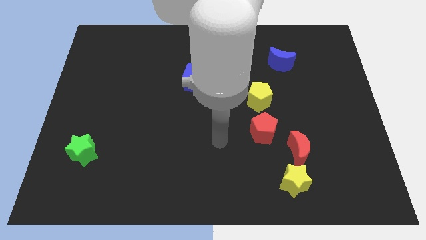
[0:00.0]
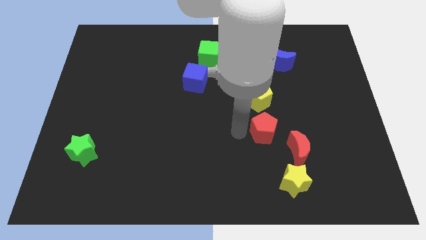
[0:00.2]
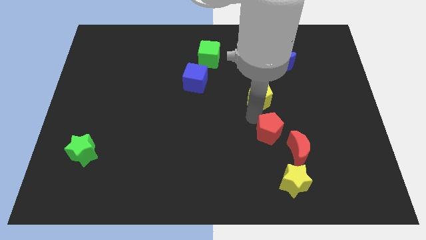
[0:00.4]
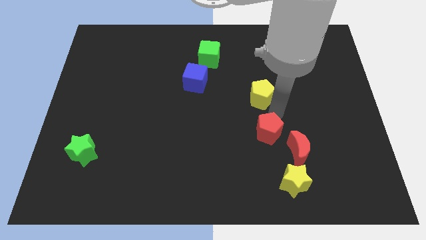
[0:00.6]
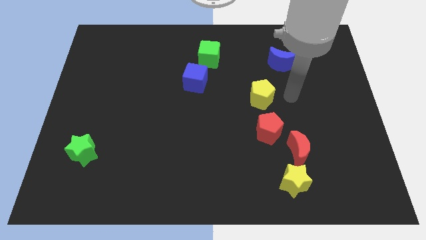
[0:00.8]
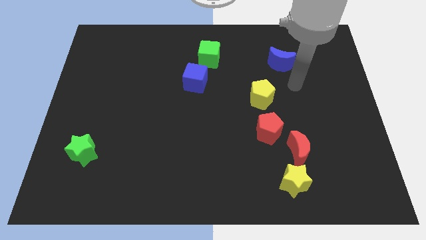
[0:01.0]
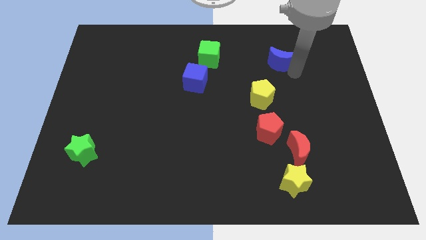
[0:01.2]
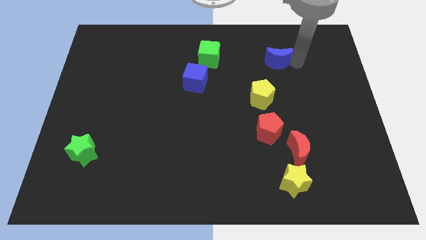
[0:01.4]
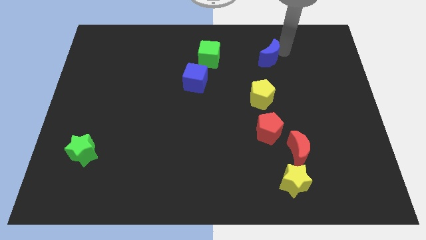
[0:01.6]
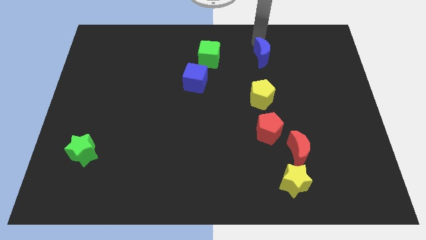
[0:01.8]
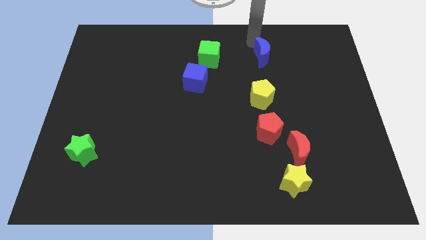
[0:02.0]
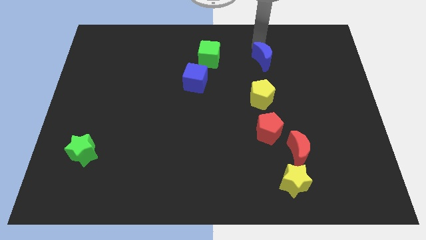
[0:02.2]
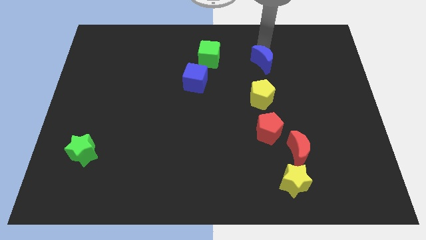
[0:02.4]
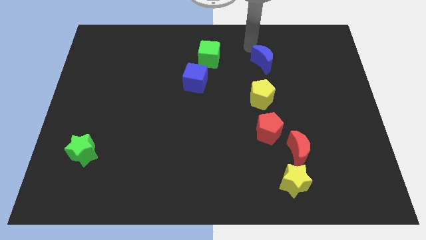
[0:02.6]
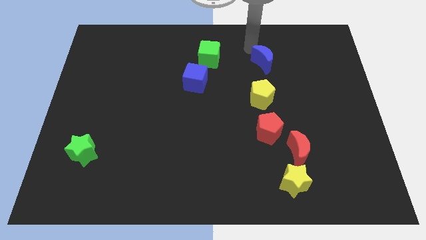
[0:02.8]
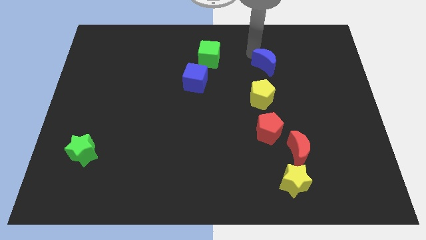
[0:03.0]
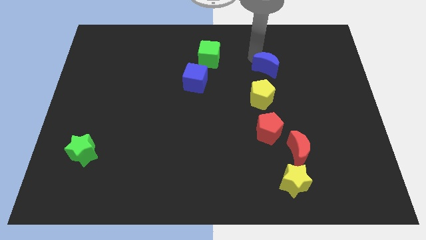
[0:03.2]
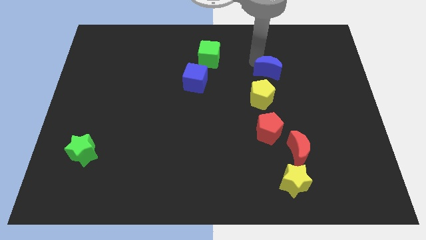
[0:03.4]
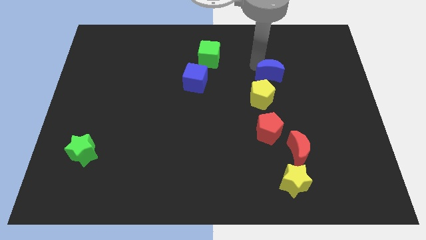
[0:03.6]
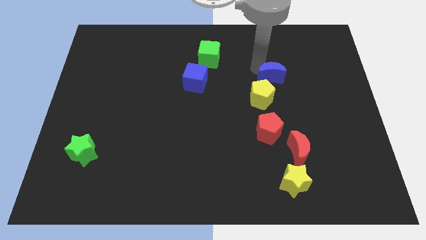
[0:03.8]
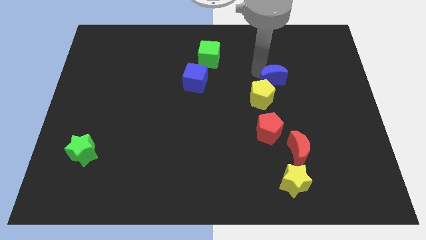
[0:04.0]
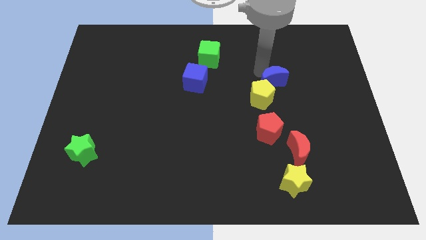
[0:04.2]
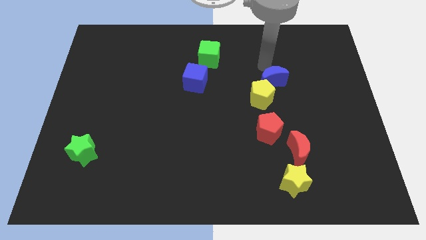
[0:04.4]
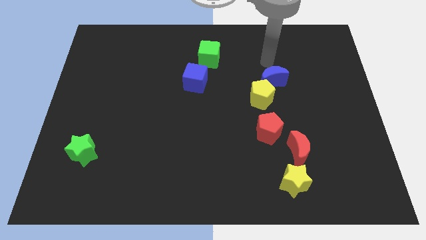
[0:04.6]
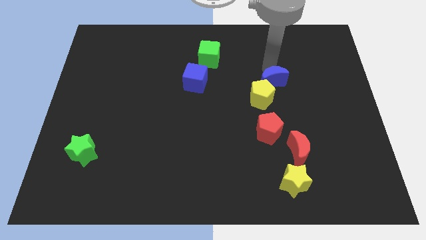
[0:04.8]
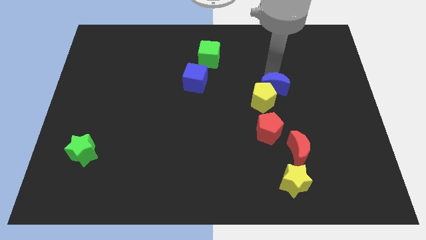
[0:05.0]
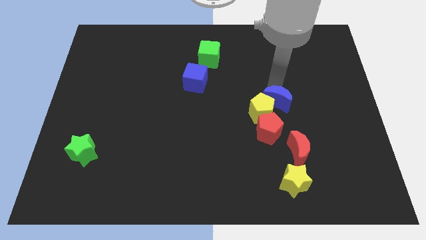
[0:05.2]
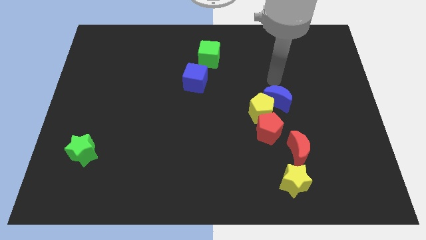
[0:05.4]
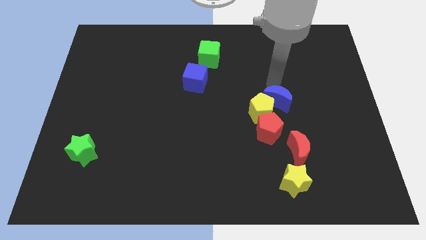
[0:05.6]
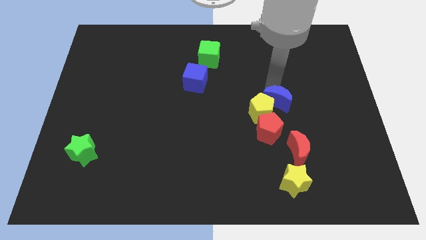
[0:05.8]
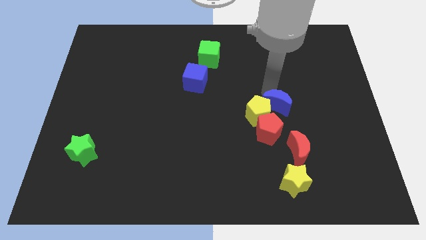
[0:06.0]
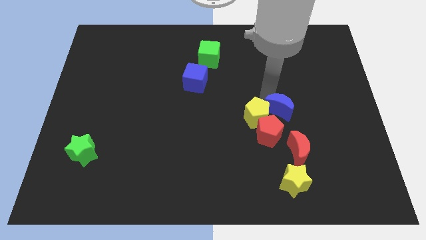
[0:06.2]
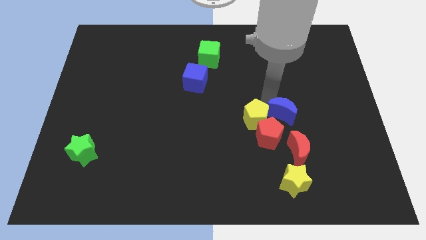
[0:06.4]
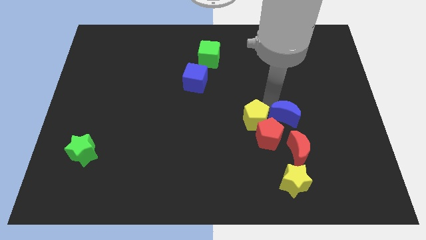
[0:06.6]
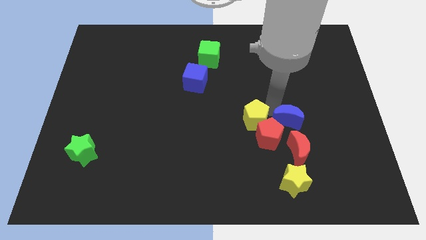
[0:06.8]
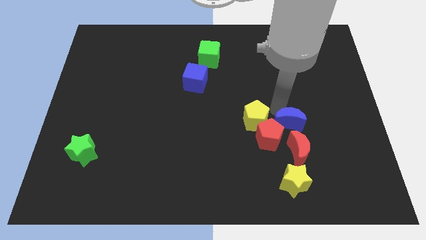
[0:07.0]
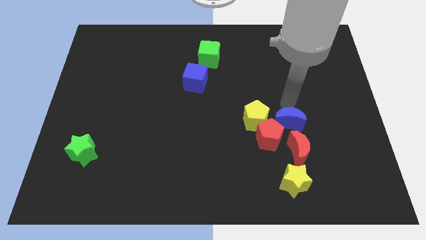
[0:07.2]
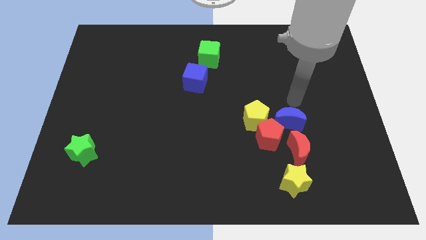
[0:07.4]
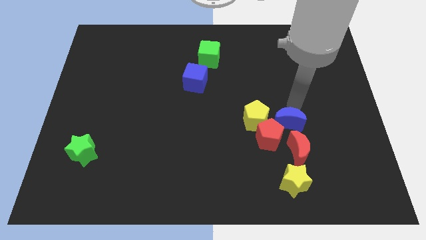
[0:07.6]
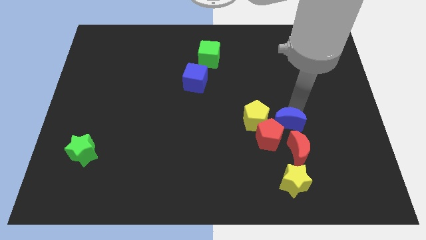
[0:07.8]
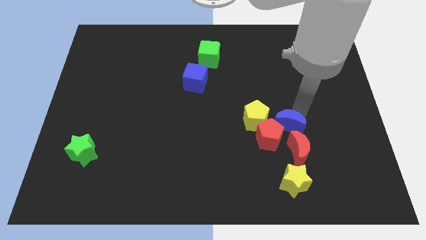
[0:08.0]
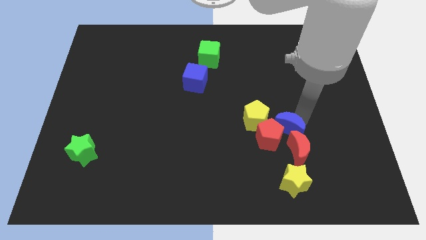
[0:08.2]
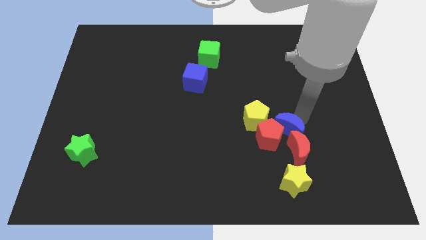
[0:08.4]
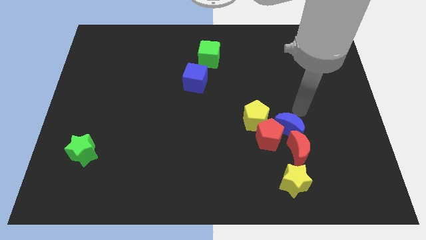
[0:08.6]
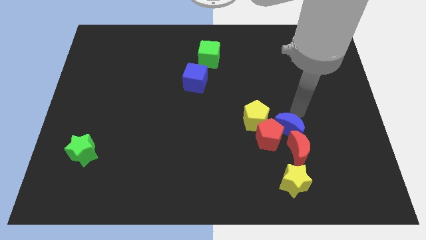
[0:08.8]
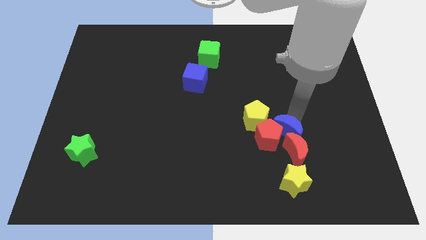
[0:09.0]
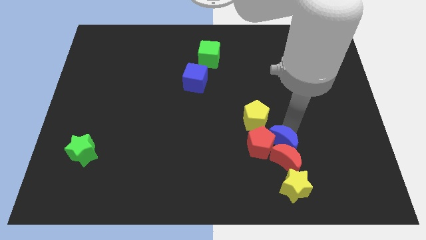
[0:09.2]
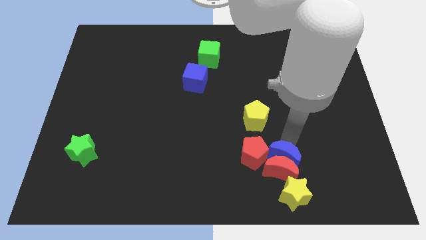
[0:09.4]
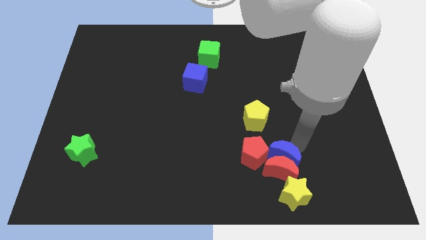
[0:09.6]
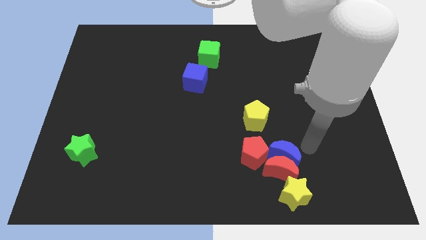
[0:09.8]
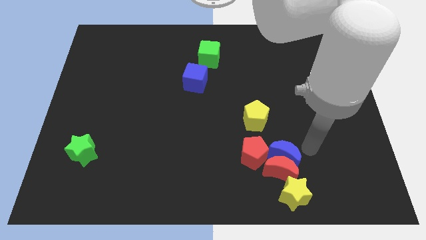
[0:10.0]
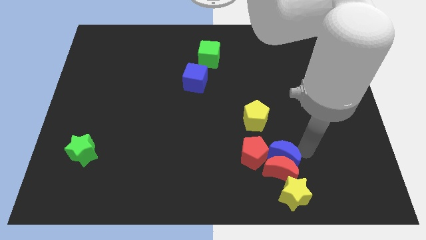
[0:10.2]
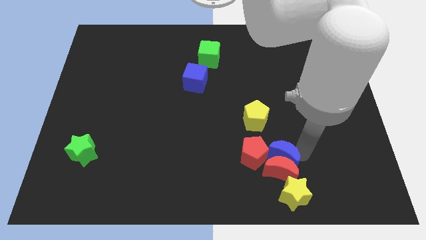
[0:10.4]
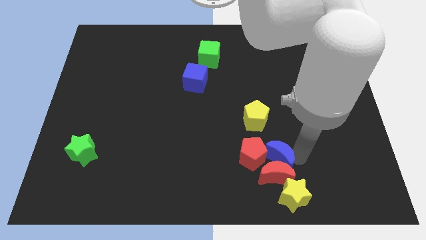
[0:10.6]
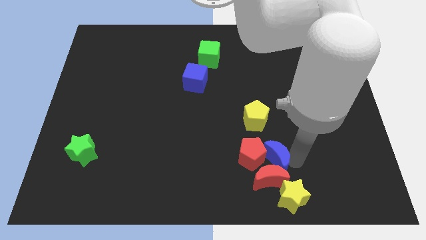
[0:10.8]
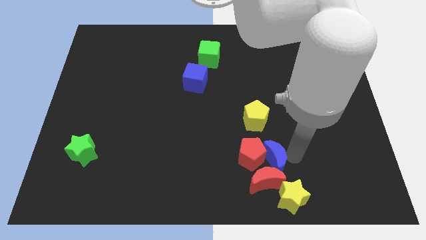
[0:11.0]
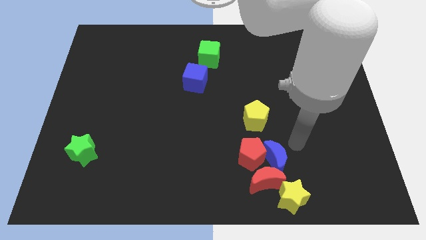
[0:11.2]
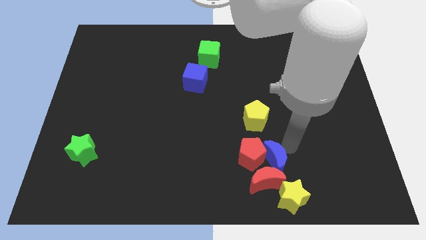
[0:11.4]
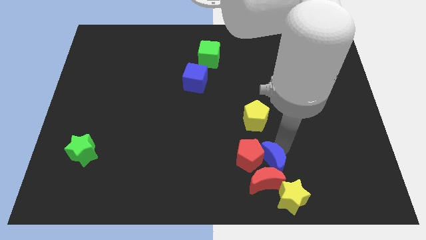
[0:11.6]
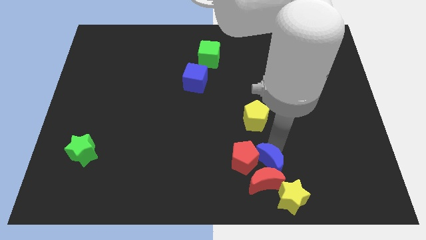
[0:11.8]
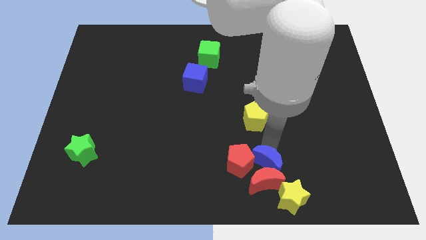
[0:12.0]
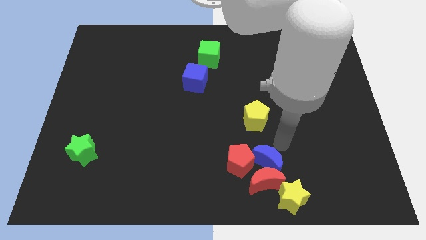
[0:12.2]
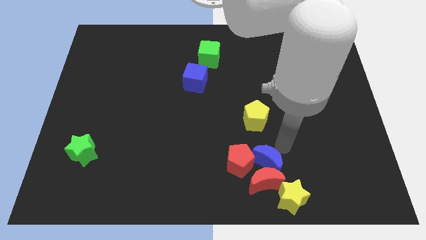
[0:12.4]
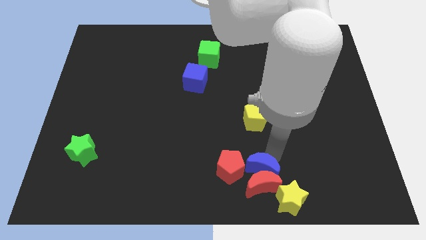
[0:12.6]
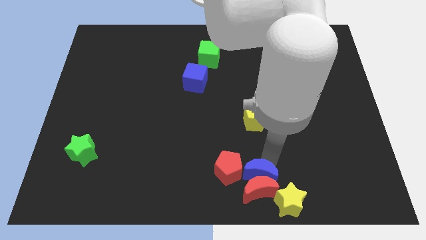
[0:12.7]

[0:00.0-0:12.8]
push the blue moon to the bottom side

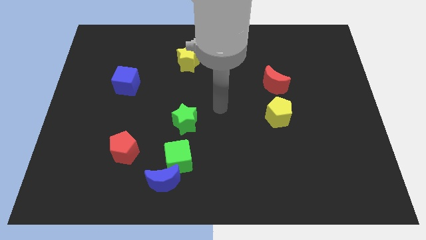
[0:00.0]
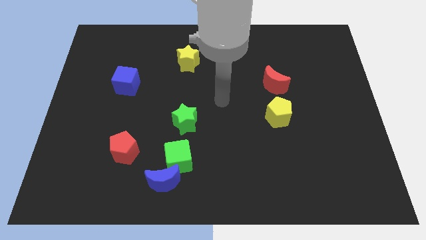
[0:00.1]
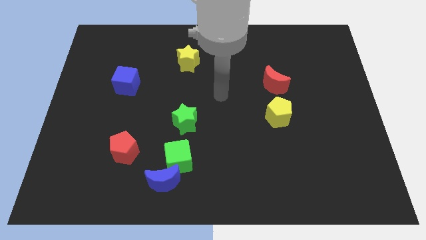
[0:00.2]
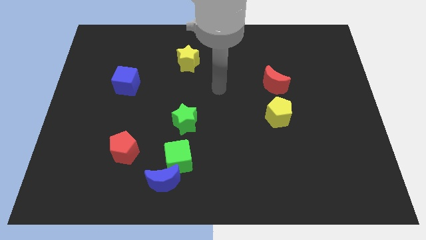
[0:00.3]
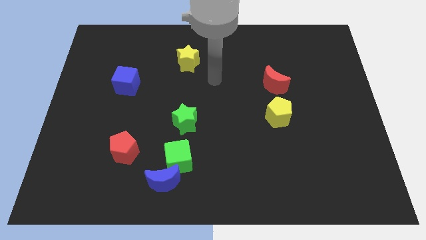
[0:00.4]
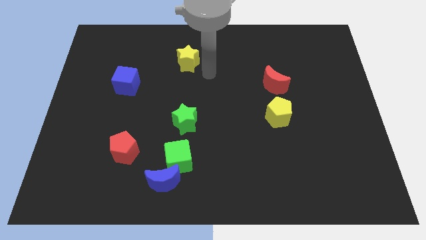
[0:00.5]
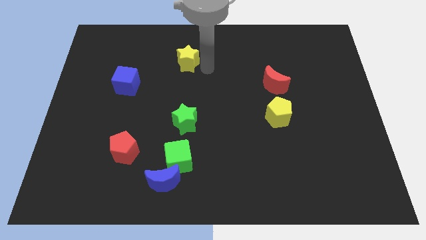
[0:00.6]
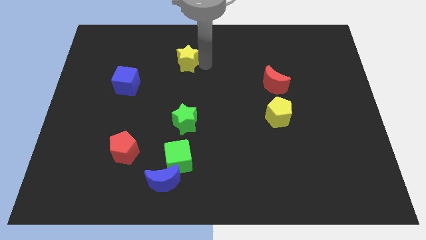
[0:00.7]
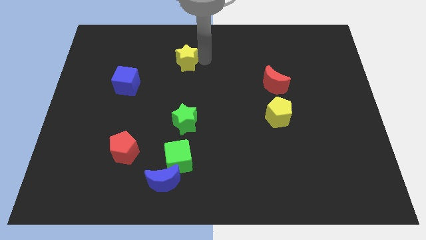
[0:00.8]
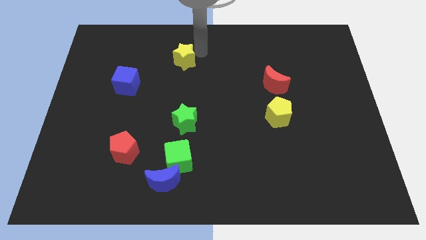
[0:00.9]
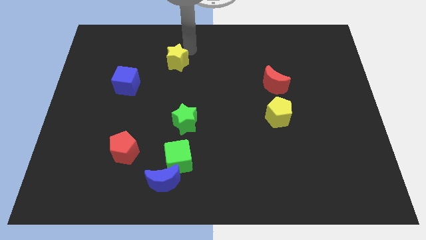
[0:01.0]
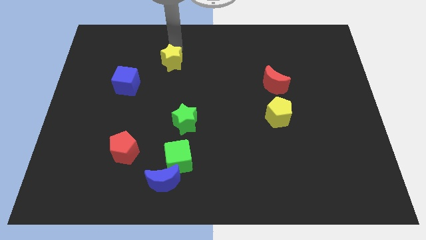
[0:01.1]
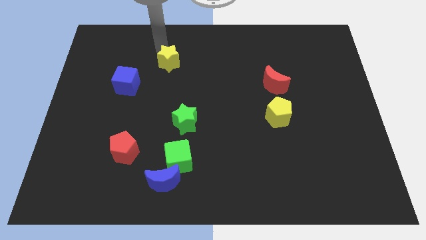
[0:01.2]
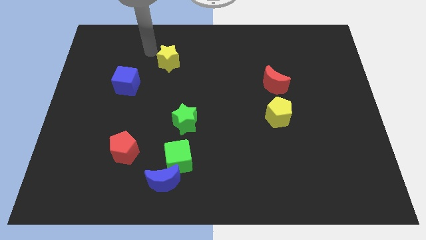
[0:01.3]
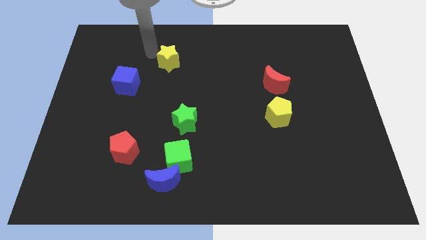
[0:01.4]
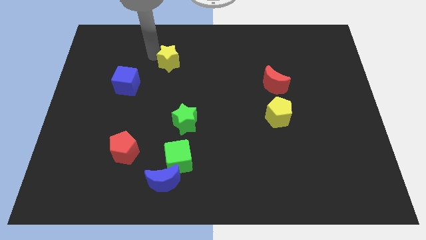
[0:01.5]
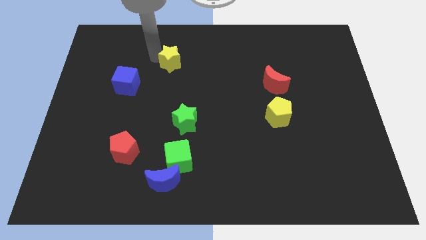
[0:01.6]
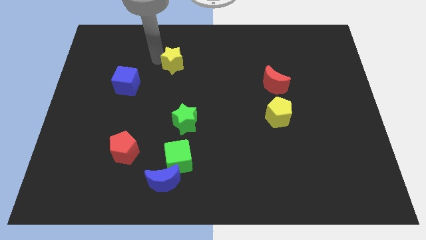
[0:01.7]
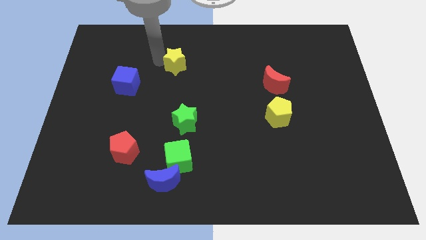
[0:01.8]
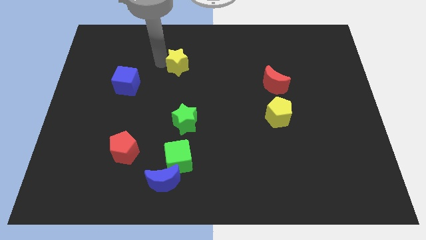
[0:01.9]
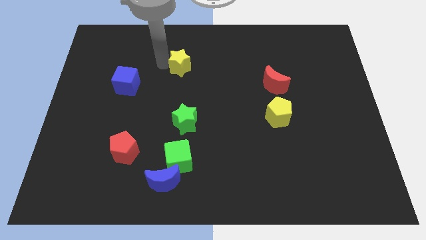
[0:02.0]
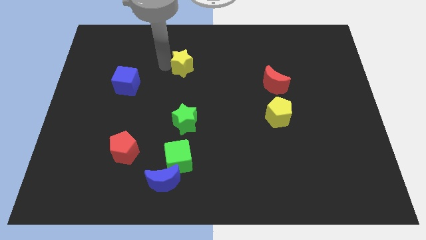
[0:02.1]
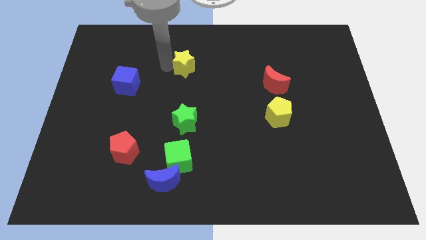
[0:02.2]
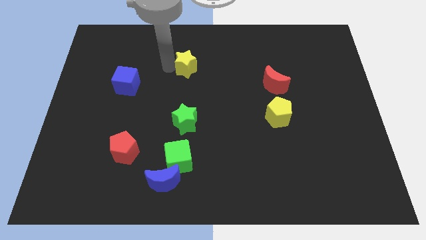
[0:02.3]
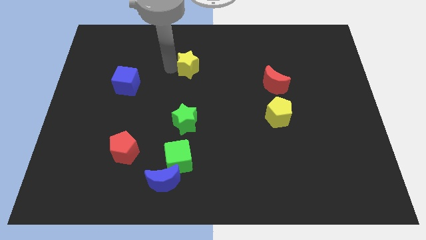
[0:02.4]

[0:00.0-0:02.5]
push the yellow star to the middle of the board
